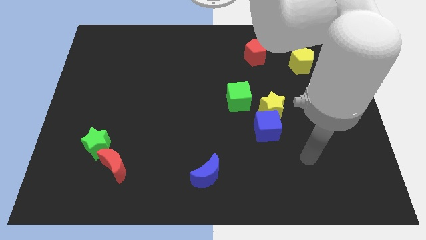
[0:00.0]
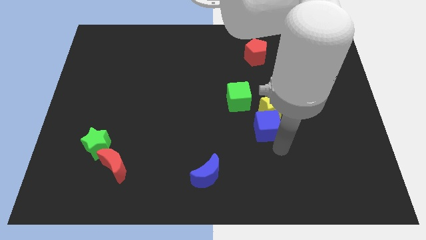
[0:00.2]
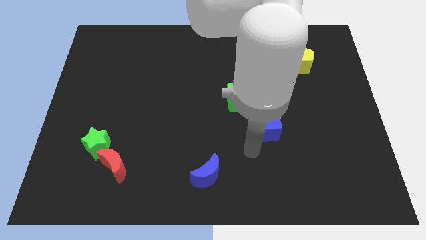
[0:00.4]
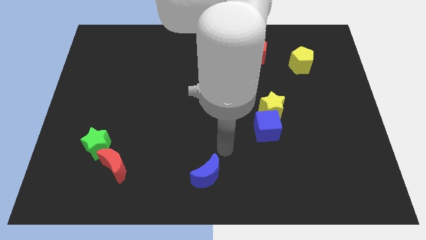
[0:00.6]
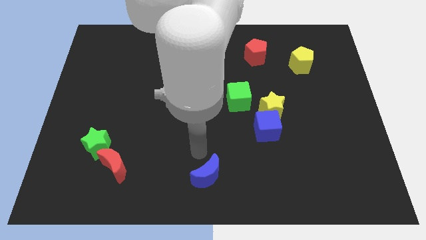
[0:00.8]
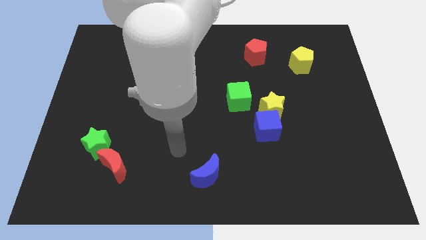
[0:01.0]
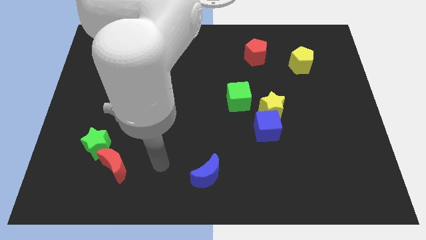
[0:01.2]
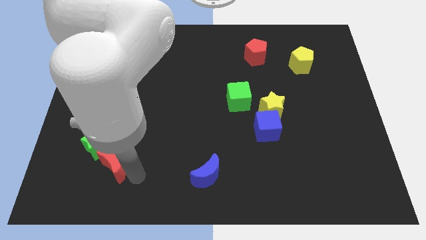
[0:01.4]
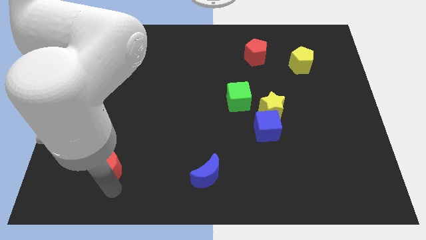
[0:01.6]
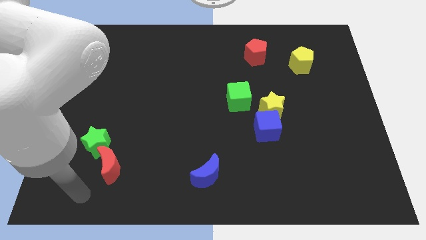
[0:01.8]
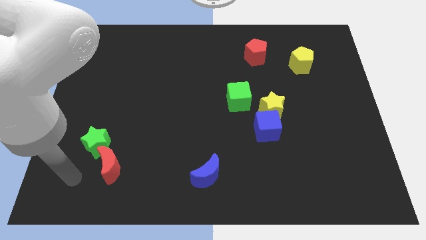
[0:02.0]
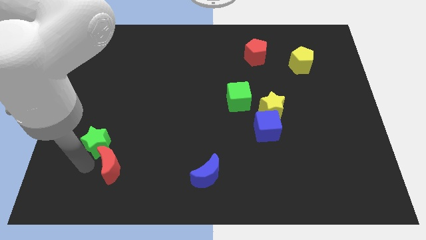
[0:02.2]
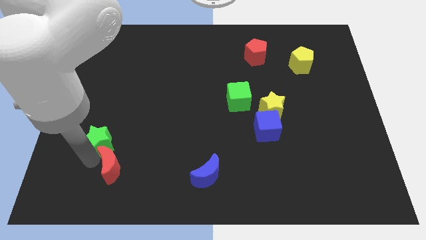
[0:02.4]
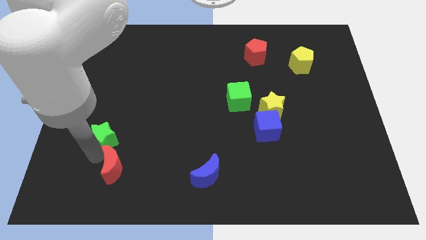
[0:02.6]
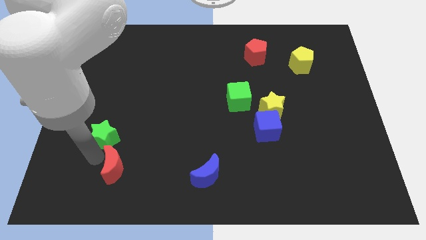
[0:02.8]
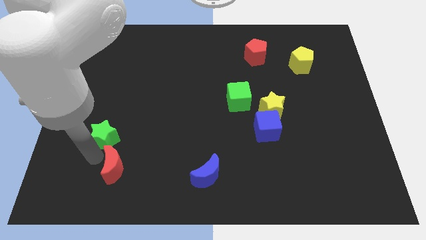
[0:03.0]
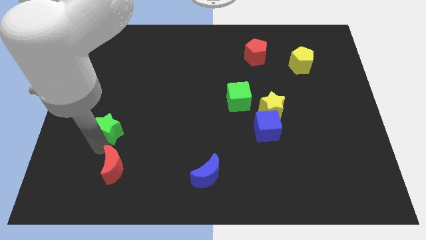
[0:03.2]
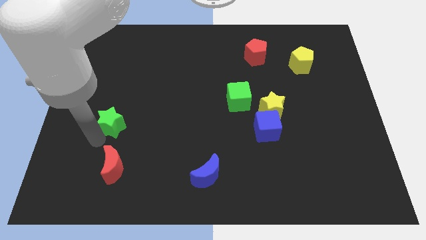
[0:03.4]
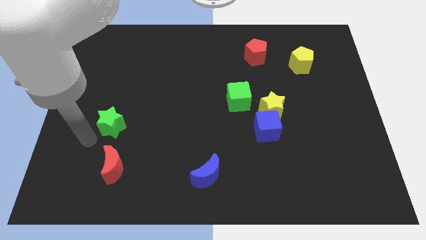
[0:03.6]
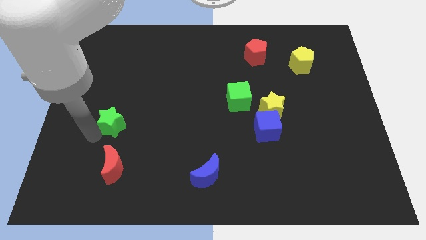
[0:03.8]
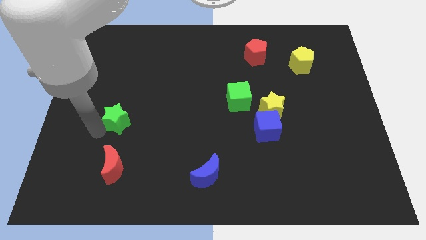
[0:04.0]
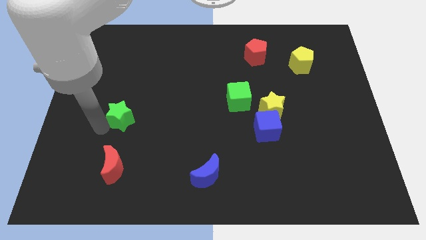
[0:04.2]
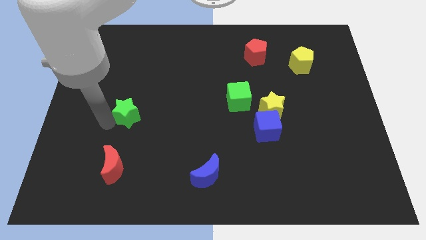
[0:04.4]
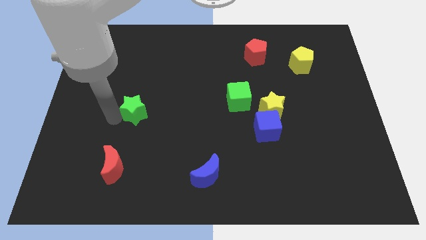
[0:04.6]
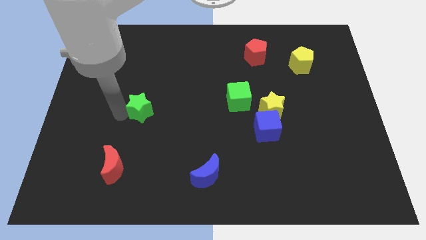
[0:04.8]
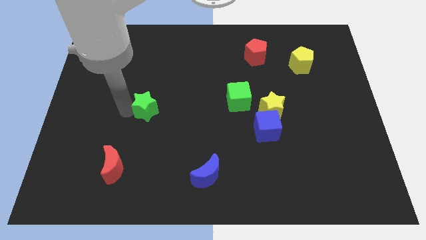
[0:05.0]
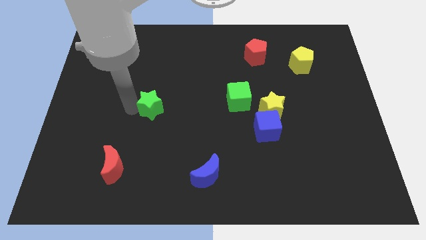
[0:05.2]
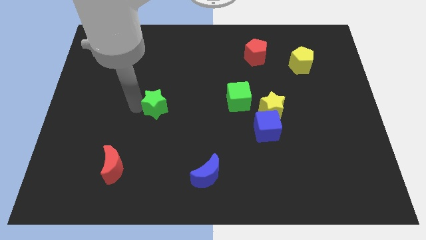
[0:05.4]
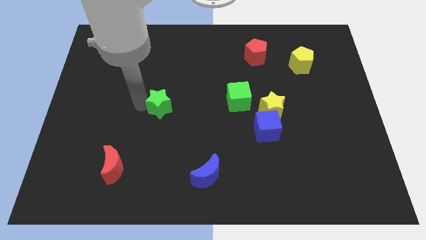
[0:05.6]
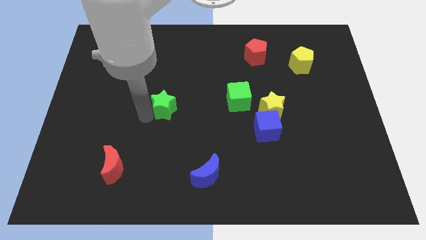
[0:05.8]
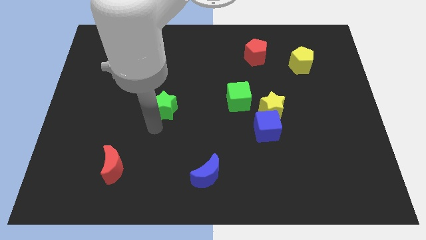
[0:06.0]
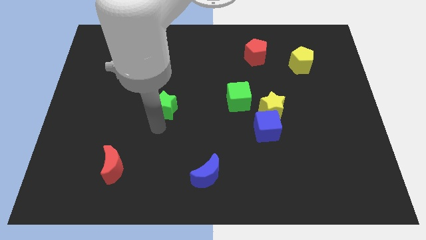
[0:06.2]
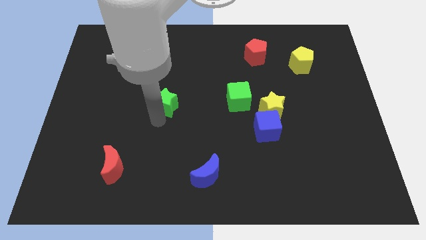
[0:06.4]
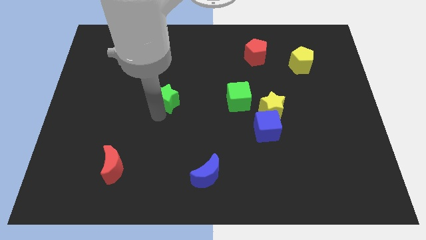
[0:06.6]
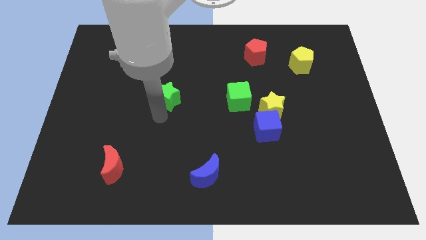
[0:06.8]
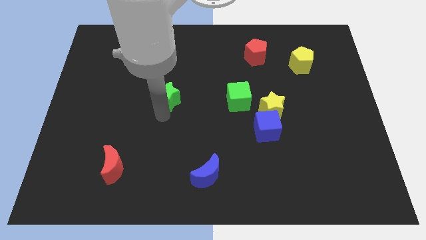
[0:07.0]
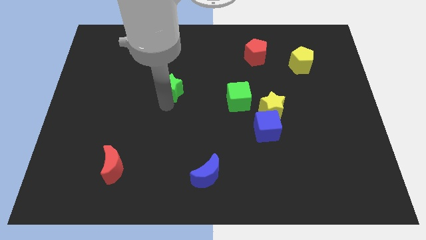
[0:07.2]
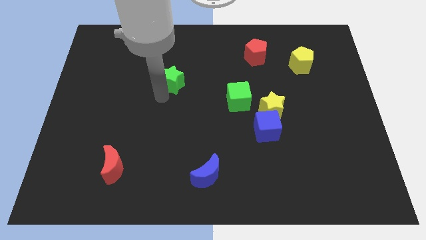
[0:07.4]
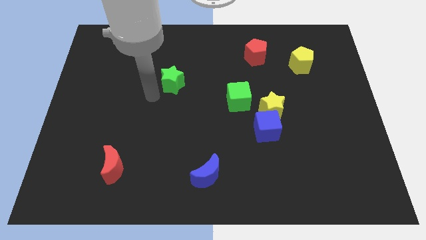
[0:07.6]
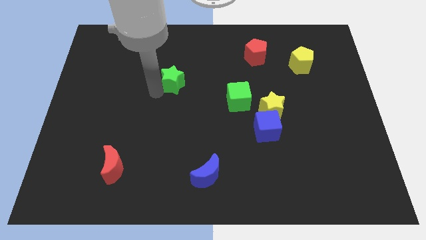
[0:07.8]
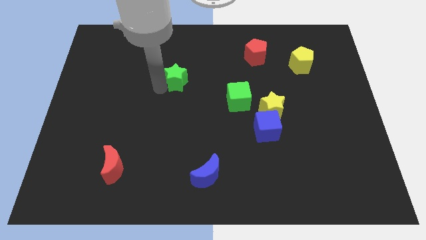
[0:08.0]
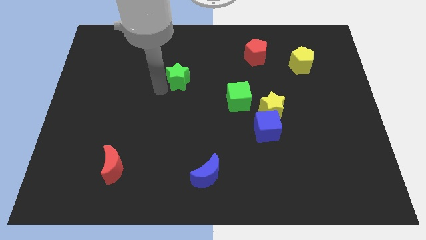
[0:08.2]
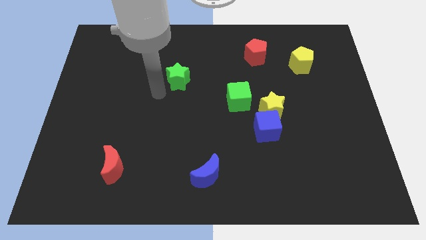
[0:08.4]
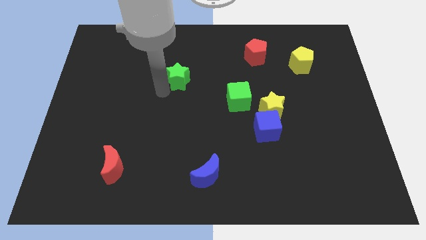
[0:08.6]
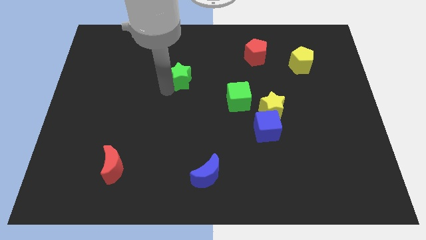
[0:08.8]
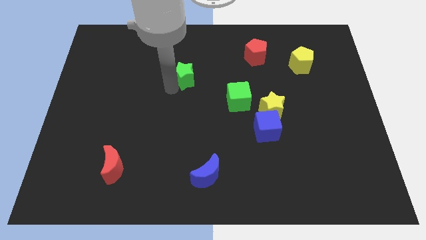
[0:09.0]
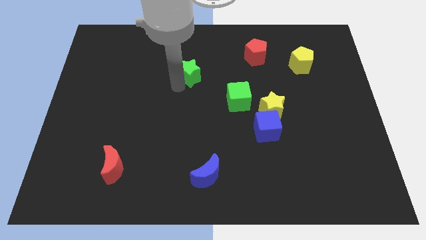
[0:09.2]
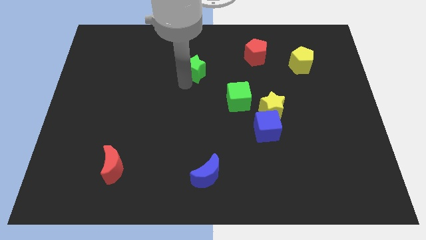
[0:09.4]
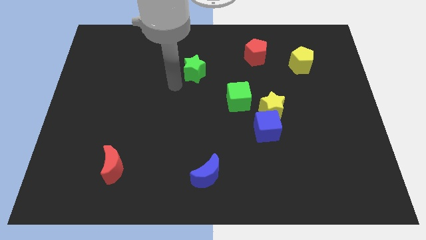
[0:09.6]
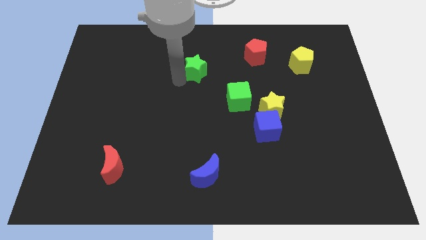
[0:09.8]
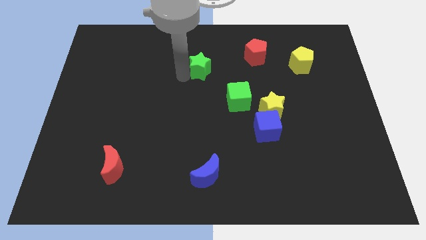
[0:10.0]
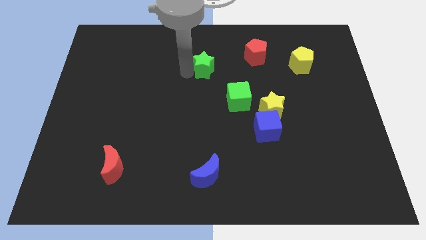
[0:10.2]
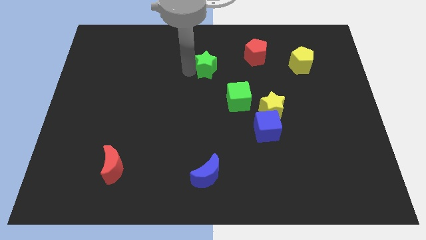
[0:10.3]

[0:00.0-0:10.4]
slide the green star to the left side of the red pentagon

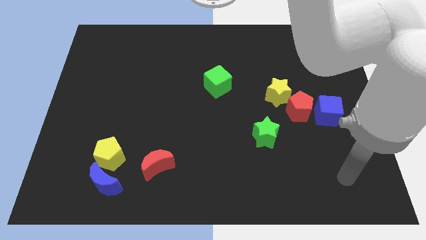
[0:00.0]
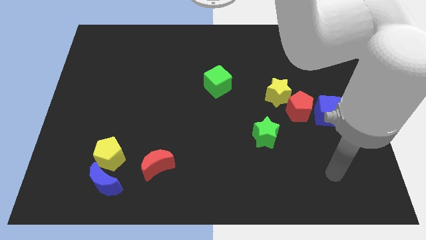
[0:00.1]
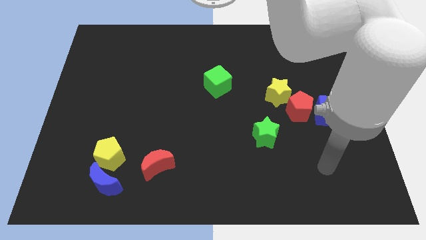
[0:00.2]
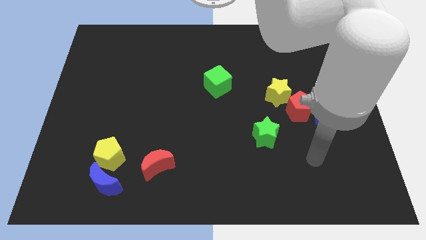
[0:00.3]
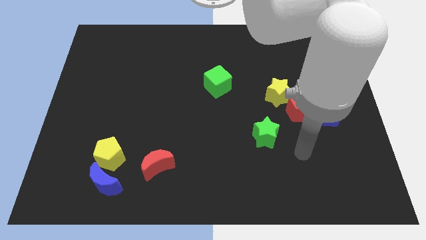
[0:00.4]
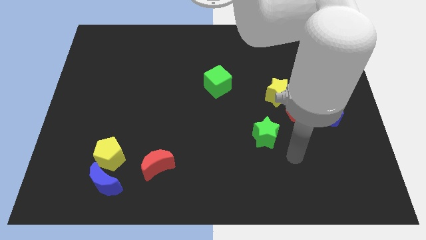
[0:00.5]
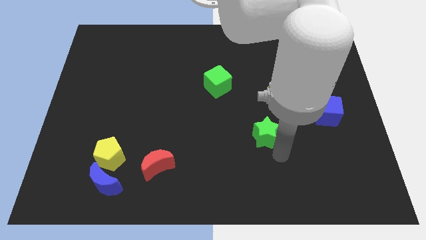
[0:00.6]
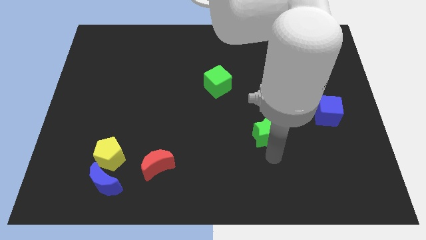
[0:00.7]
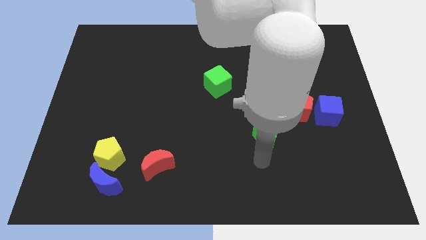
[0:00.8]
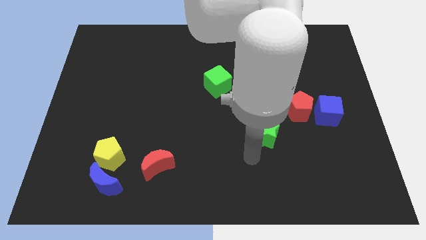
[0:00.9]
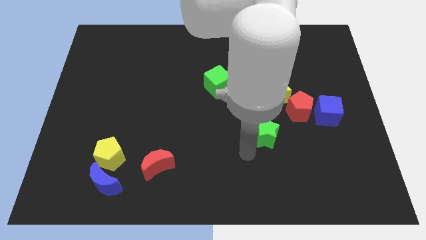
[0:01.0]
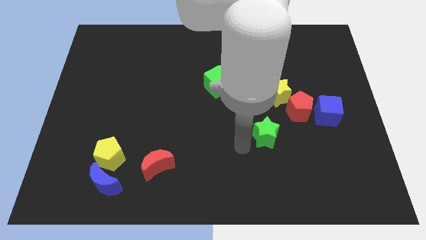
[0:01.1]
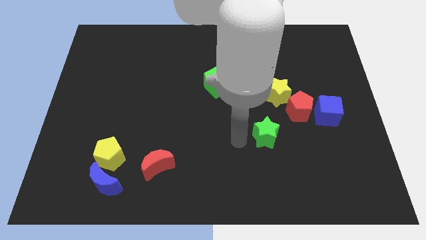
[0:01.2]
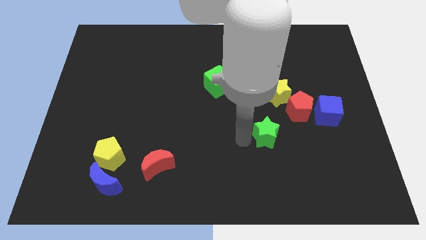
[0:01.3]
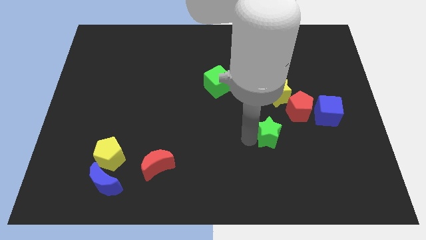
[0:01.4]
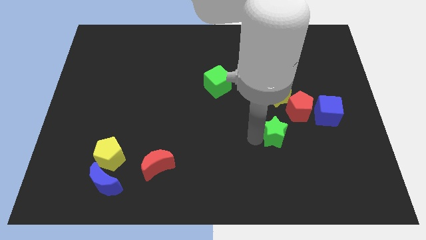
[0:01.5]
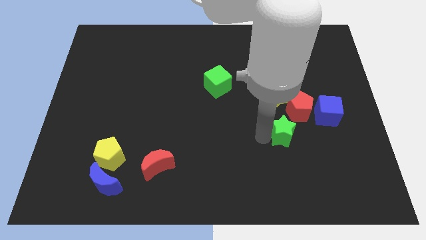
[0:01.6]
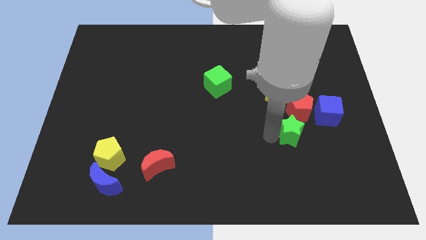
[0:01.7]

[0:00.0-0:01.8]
move the green star to the bottom left of the blue cube

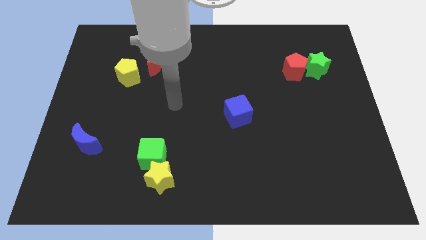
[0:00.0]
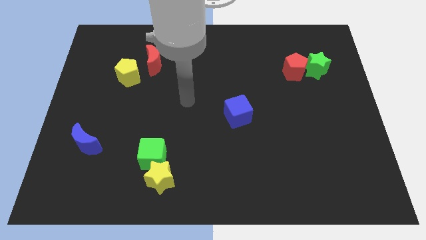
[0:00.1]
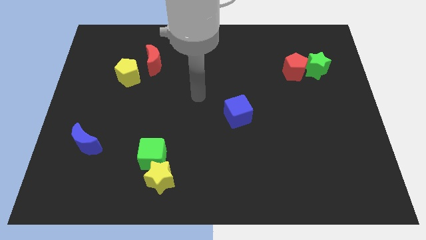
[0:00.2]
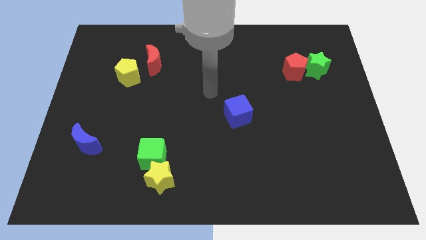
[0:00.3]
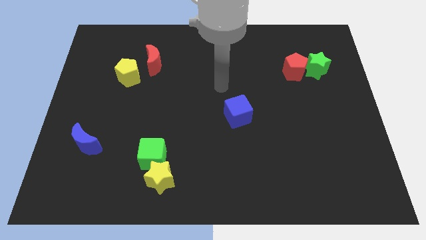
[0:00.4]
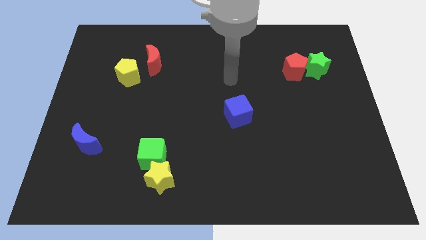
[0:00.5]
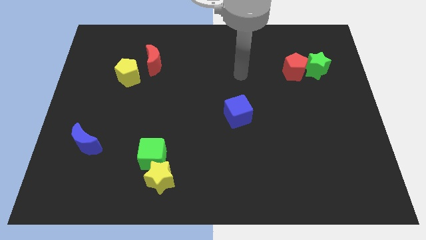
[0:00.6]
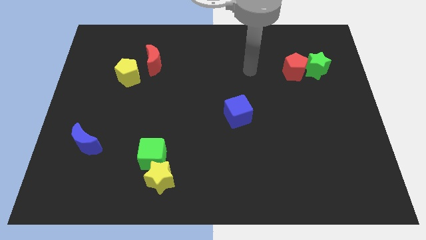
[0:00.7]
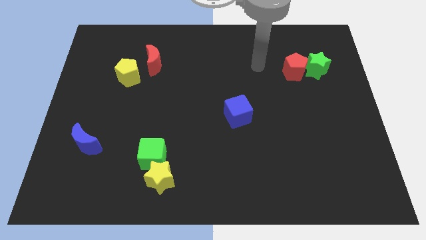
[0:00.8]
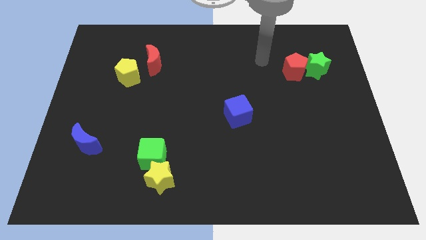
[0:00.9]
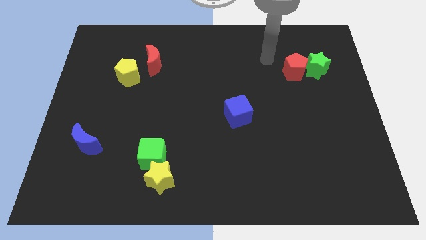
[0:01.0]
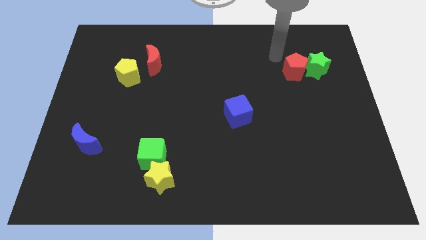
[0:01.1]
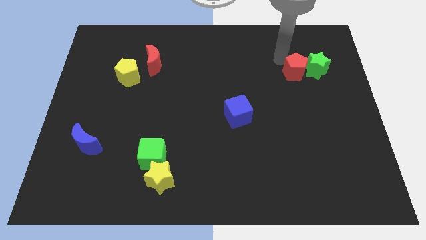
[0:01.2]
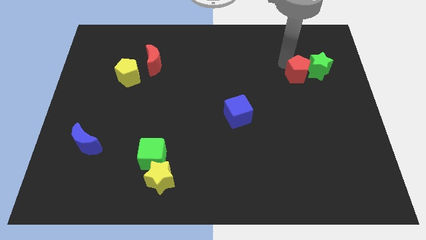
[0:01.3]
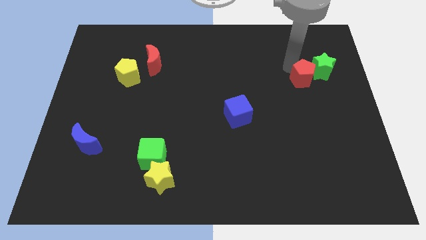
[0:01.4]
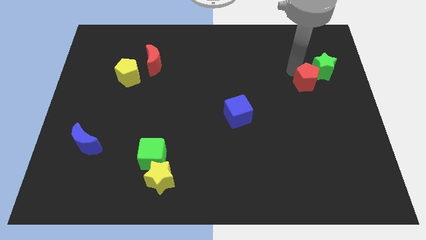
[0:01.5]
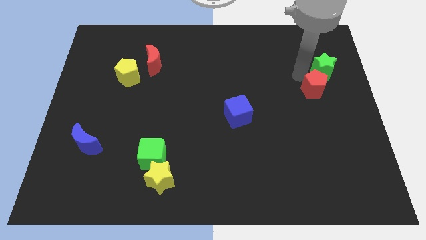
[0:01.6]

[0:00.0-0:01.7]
slide the red pentagon below the green star
